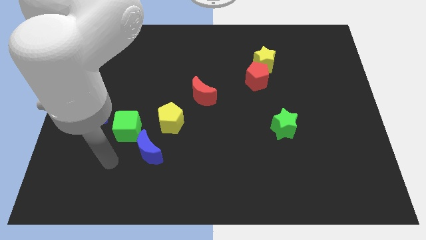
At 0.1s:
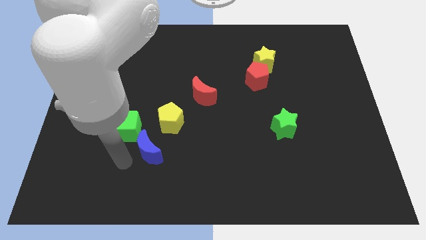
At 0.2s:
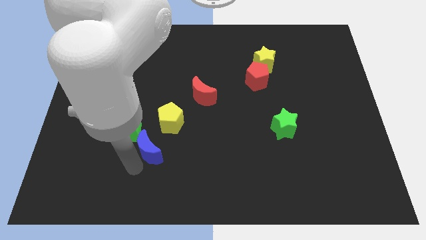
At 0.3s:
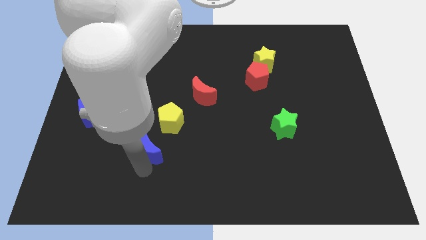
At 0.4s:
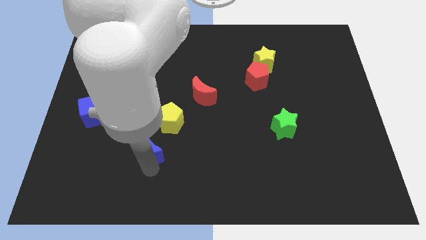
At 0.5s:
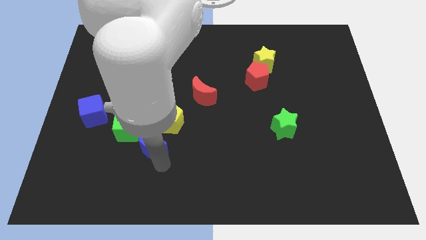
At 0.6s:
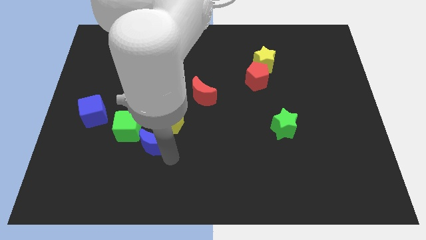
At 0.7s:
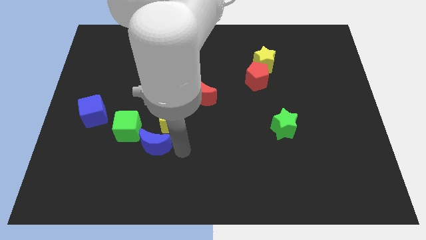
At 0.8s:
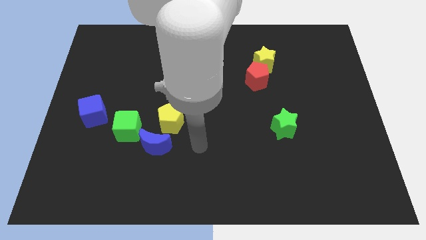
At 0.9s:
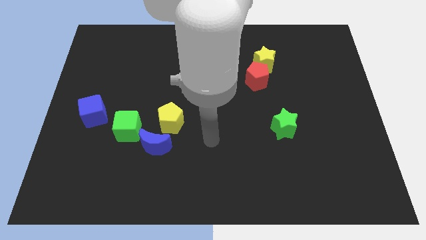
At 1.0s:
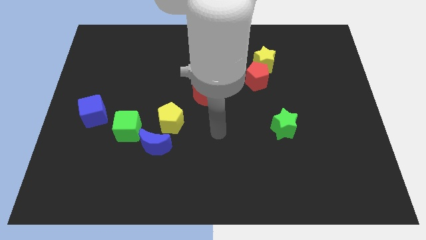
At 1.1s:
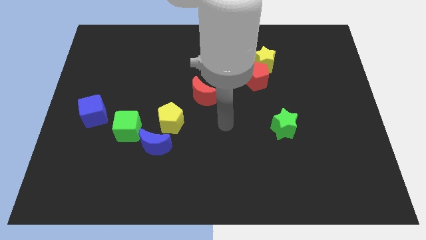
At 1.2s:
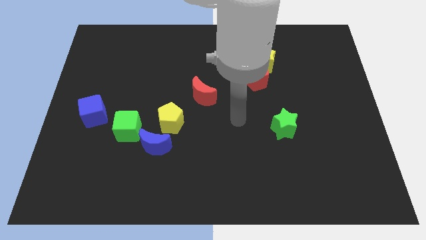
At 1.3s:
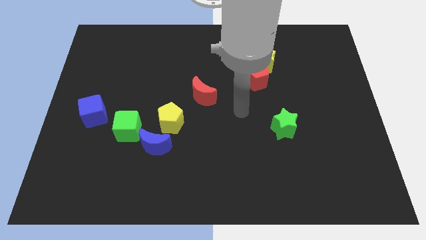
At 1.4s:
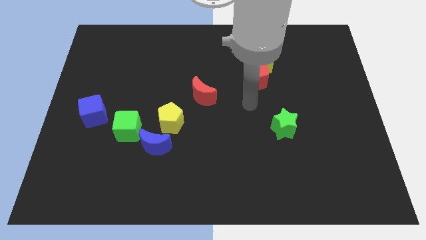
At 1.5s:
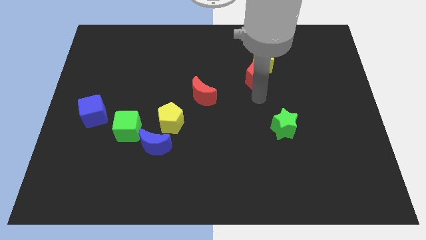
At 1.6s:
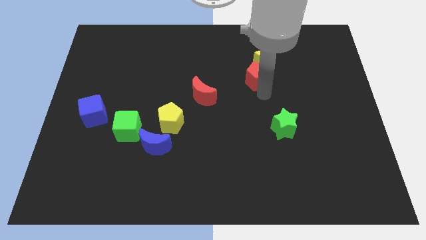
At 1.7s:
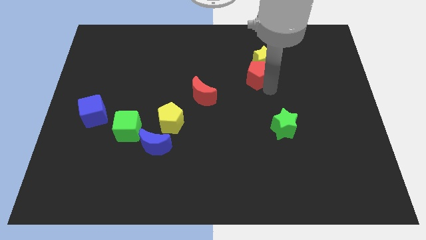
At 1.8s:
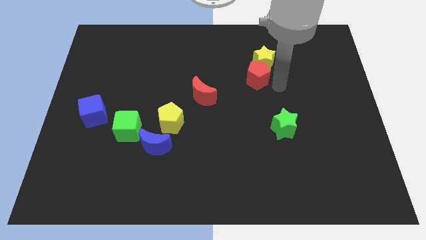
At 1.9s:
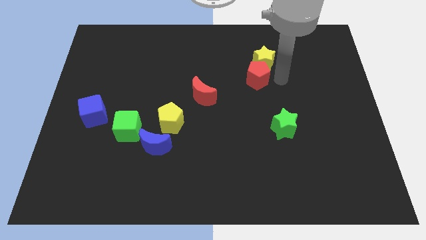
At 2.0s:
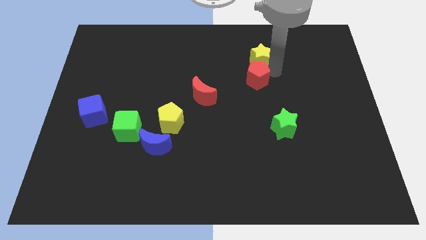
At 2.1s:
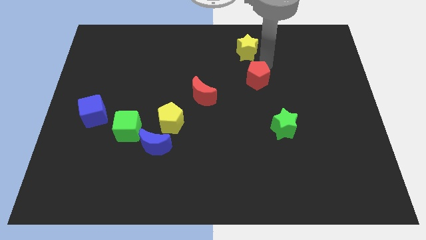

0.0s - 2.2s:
move the red pentagon away from the yellow star

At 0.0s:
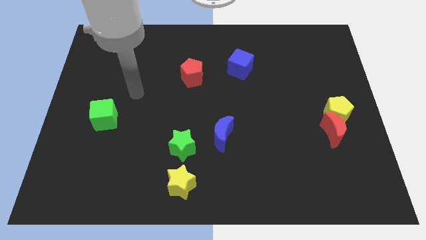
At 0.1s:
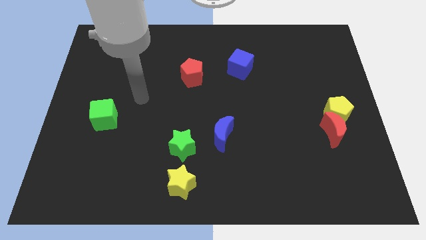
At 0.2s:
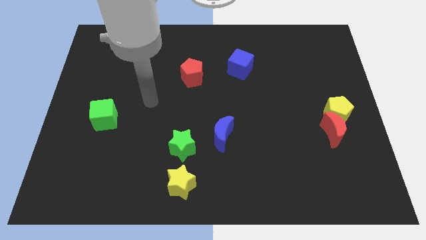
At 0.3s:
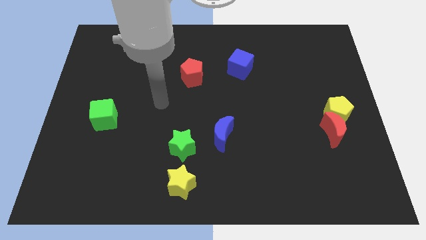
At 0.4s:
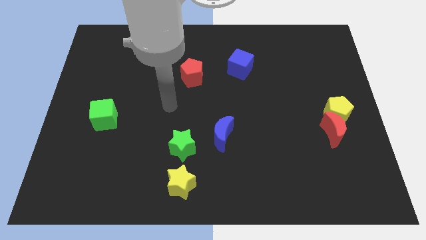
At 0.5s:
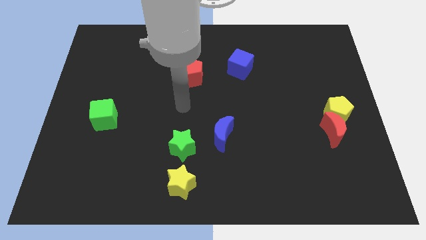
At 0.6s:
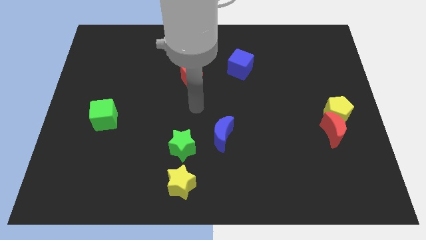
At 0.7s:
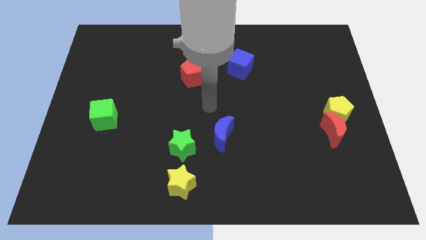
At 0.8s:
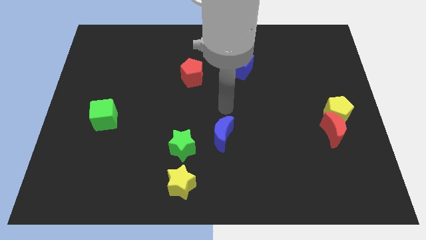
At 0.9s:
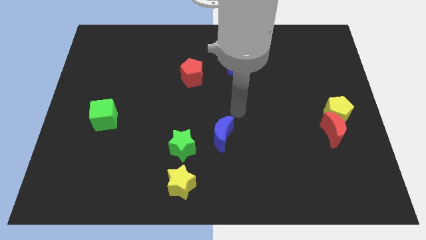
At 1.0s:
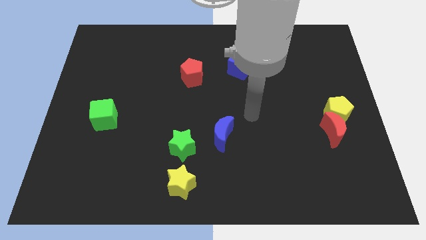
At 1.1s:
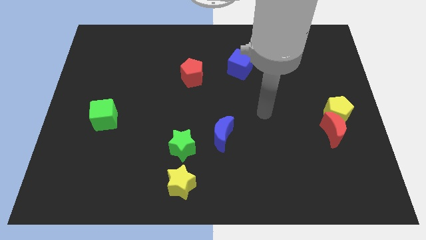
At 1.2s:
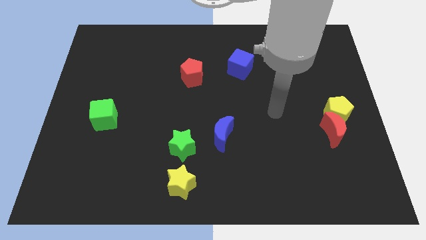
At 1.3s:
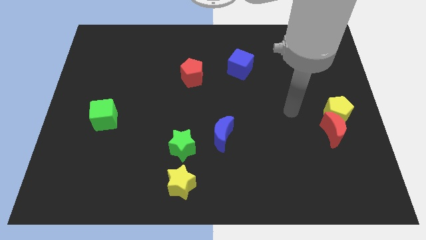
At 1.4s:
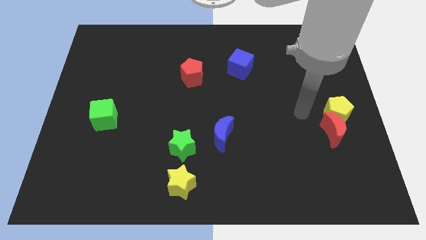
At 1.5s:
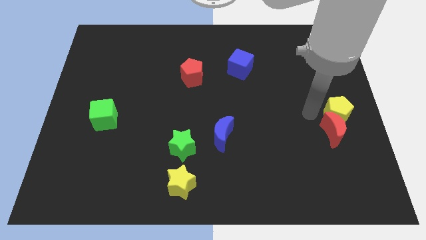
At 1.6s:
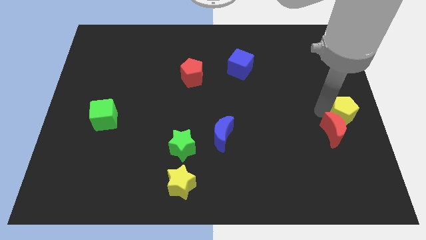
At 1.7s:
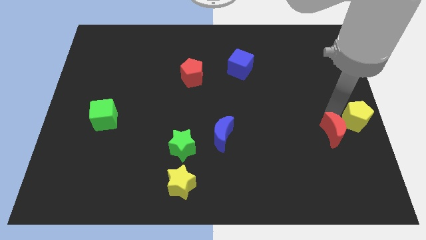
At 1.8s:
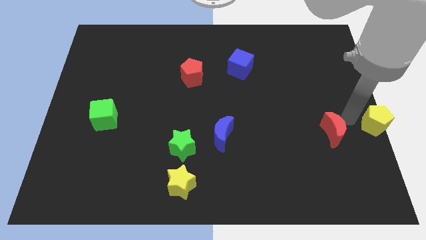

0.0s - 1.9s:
move the red moon away from the yellow pentagon

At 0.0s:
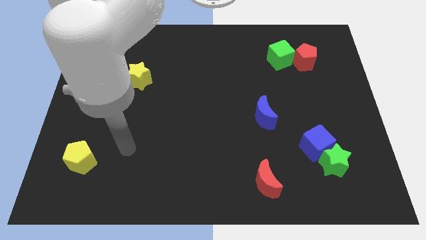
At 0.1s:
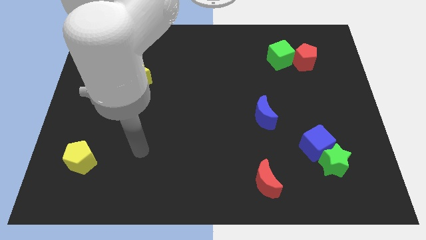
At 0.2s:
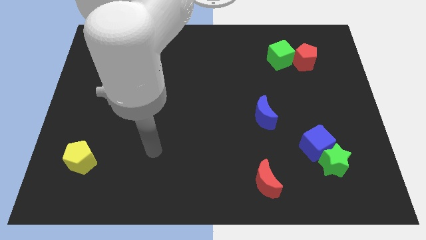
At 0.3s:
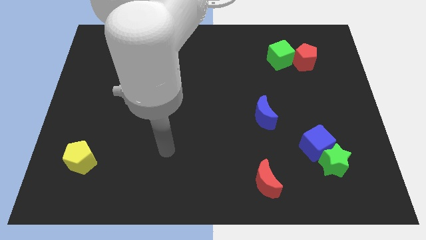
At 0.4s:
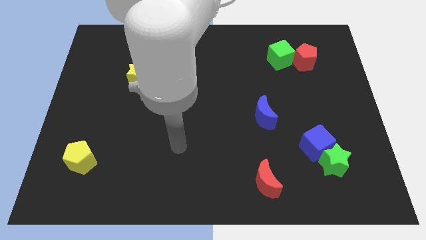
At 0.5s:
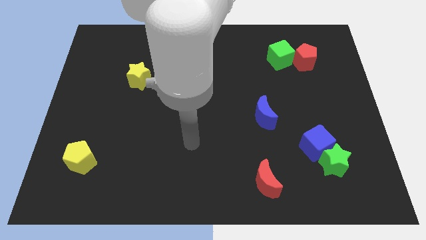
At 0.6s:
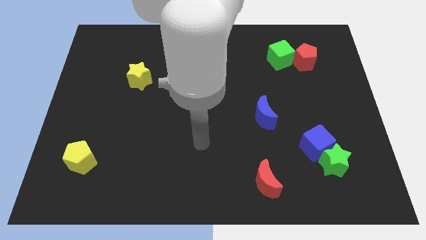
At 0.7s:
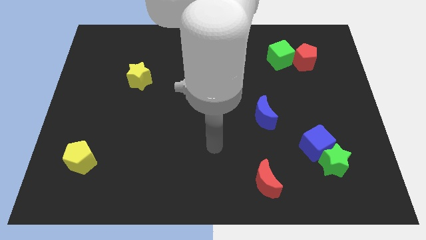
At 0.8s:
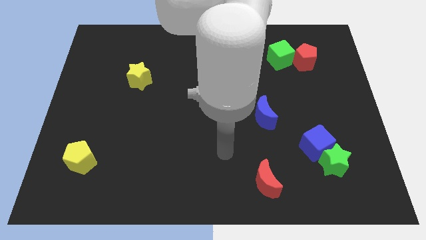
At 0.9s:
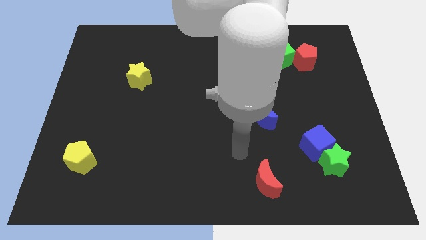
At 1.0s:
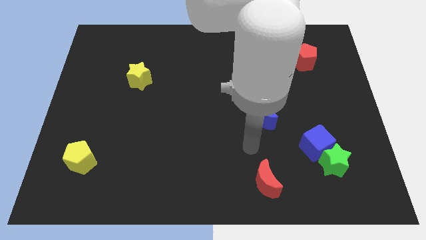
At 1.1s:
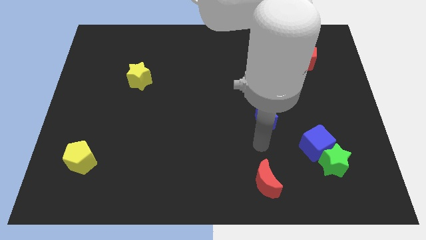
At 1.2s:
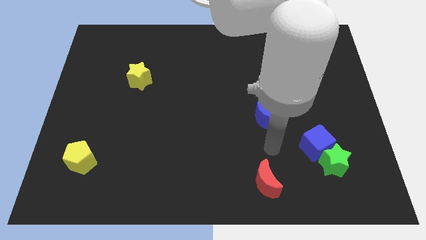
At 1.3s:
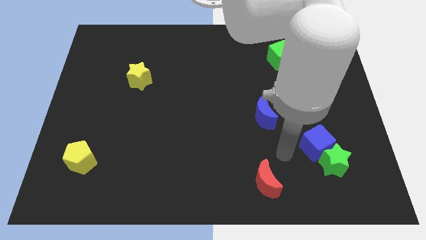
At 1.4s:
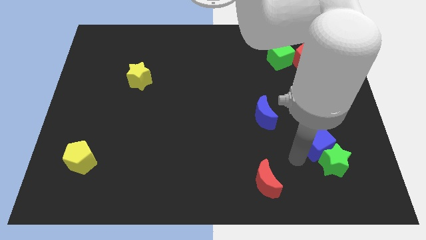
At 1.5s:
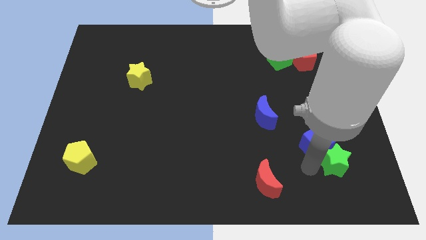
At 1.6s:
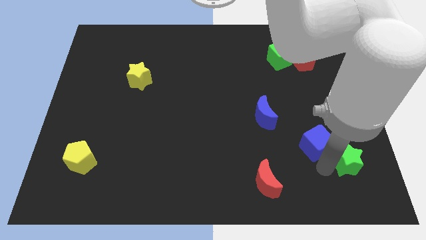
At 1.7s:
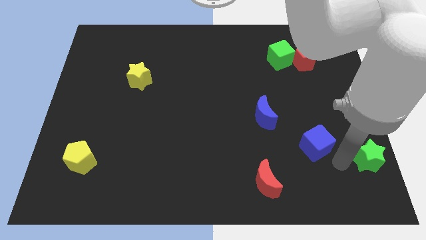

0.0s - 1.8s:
pull the blue cube apart from the green star

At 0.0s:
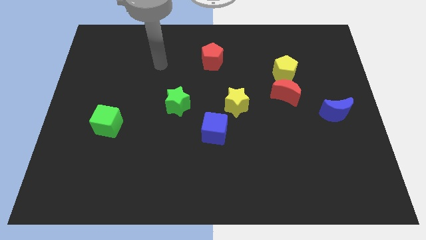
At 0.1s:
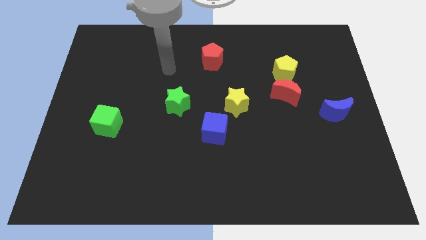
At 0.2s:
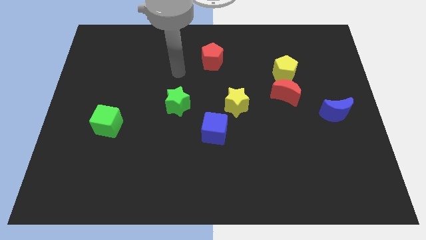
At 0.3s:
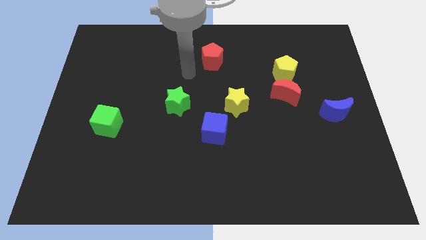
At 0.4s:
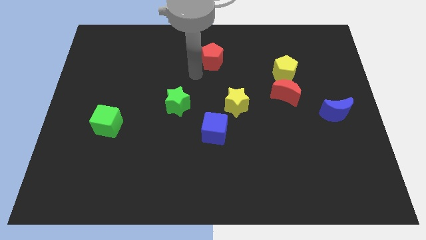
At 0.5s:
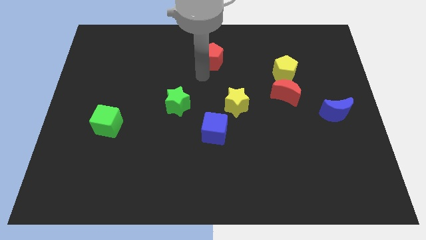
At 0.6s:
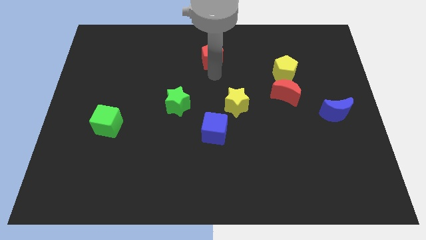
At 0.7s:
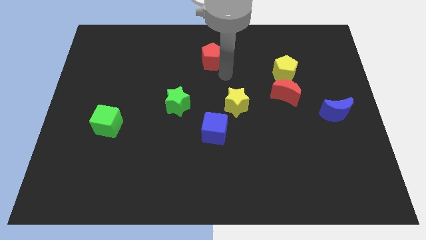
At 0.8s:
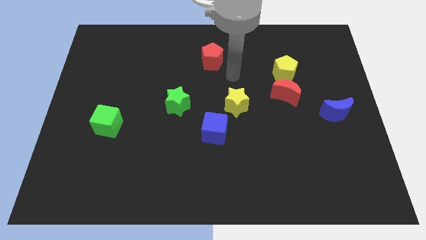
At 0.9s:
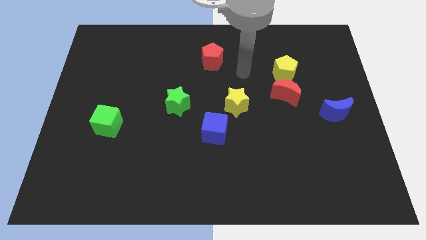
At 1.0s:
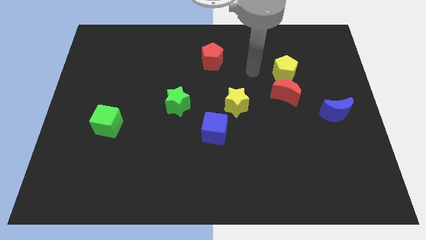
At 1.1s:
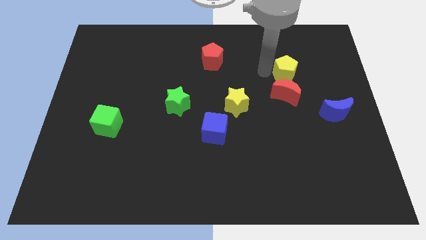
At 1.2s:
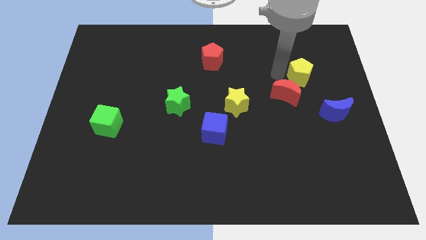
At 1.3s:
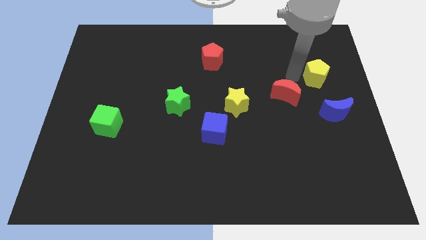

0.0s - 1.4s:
separate the red moon from the yellow pentagon

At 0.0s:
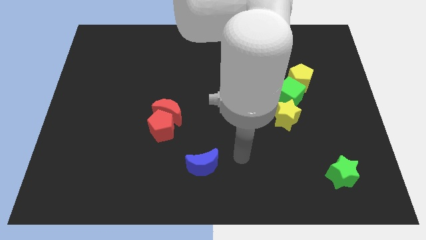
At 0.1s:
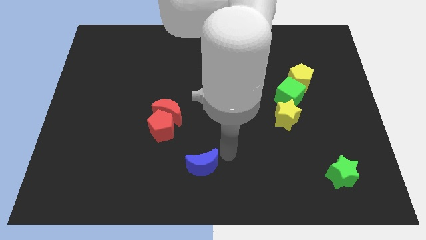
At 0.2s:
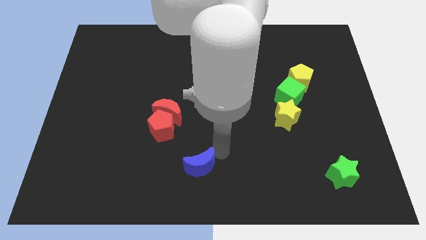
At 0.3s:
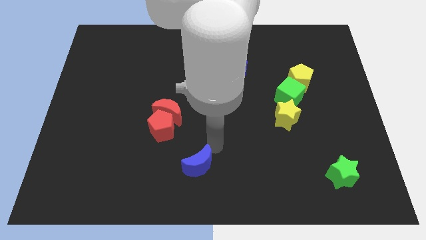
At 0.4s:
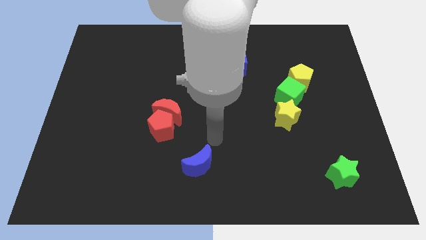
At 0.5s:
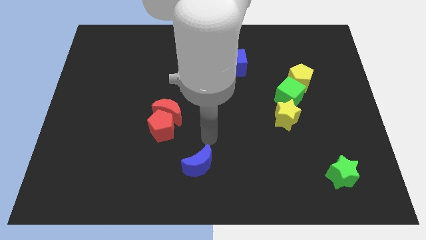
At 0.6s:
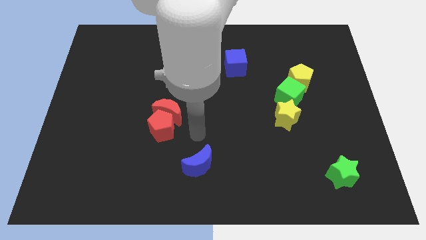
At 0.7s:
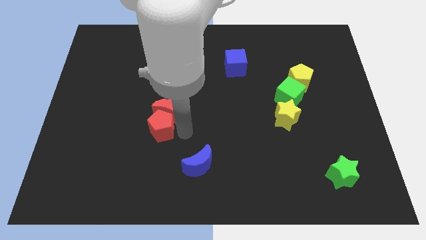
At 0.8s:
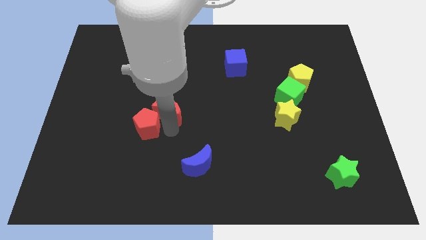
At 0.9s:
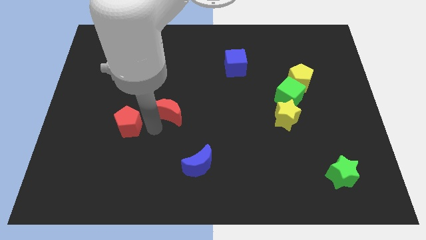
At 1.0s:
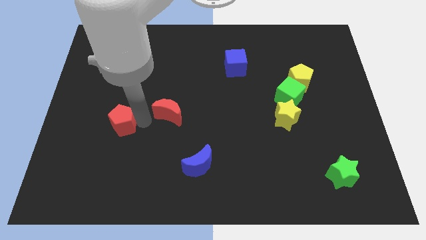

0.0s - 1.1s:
move the red moon away from the red pentagon

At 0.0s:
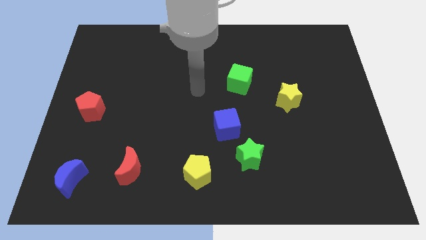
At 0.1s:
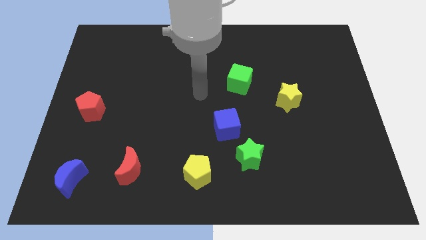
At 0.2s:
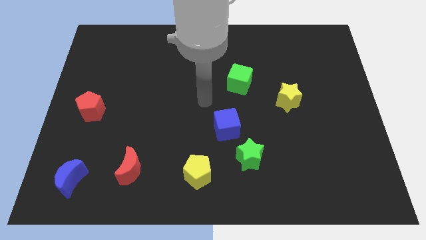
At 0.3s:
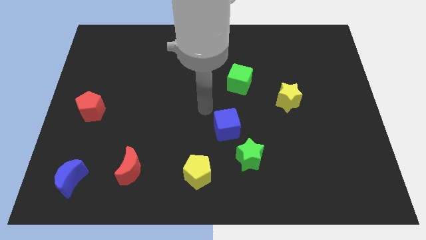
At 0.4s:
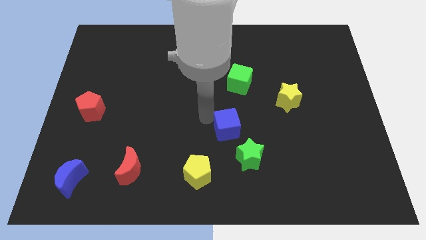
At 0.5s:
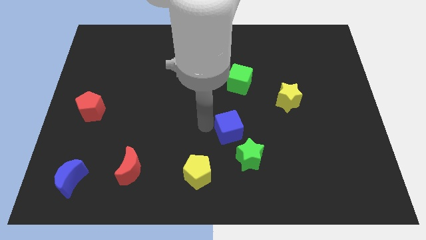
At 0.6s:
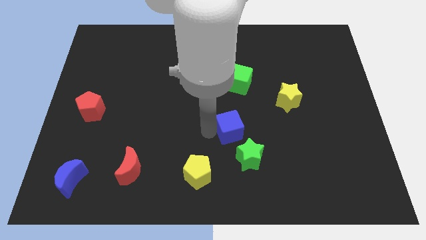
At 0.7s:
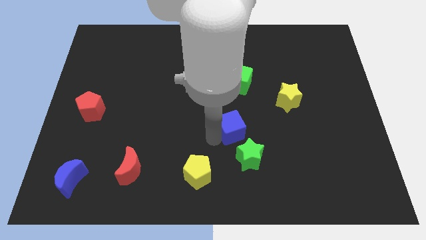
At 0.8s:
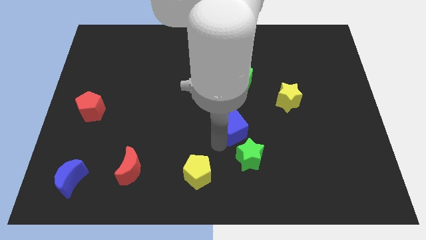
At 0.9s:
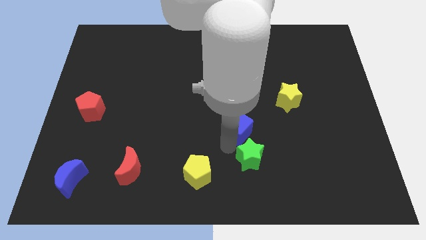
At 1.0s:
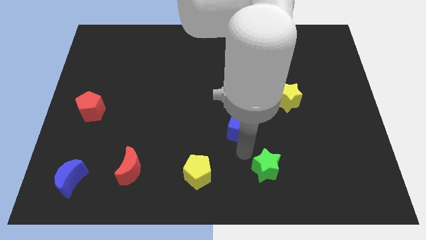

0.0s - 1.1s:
move the blue cube away from the green star
